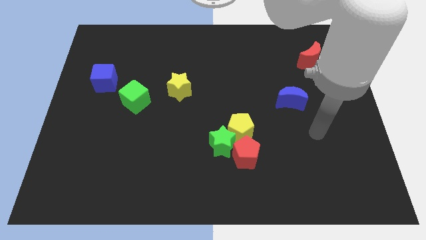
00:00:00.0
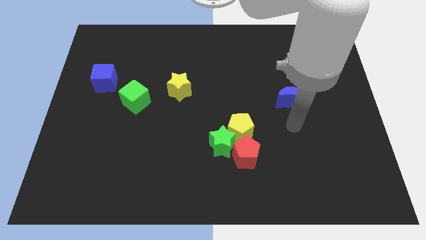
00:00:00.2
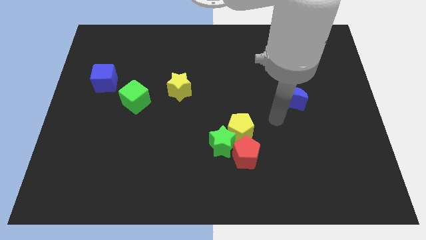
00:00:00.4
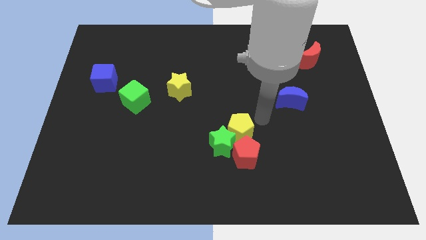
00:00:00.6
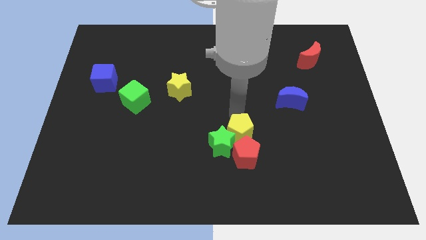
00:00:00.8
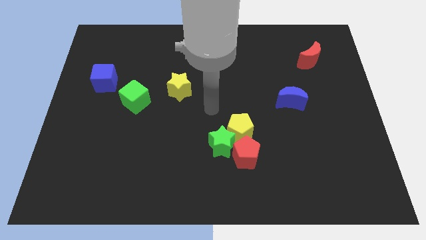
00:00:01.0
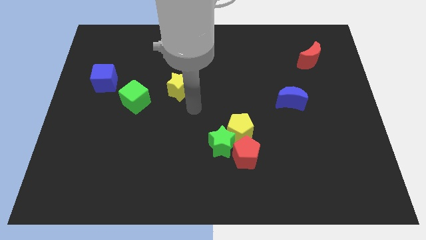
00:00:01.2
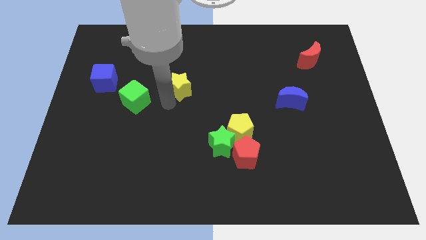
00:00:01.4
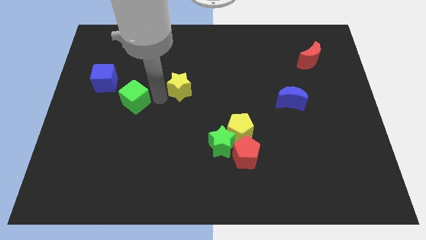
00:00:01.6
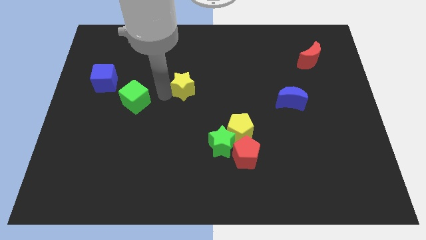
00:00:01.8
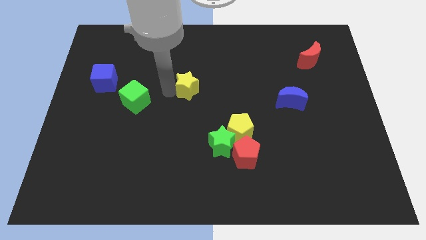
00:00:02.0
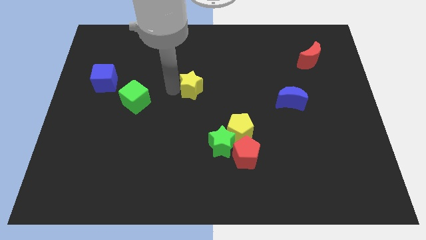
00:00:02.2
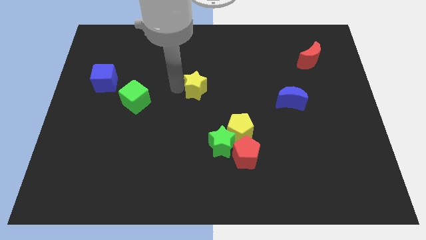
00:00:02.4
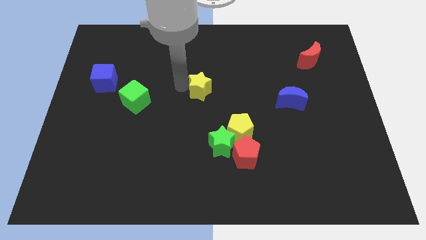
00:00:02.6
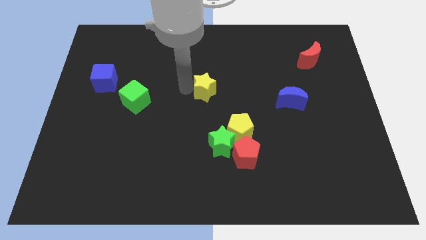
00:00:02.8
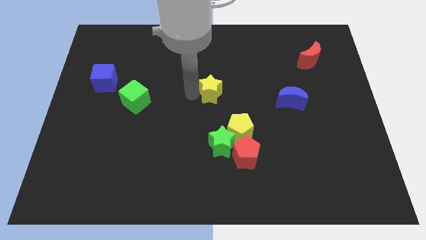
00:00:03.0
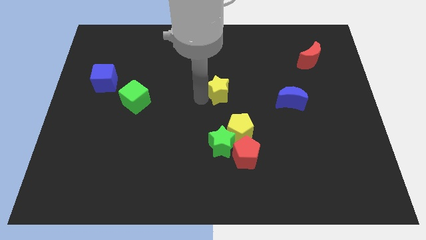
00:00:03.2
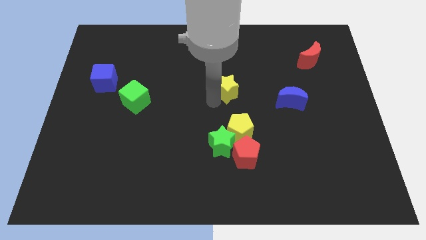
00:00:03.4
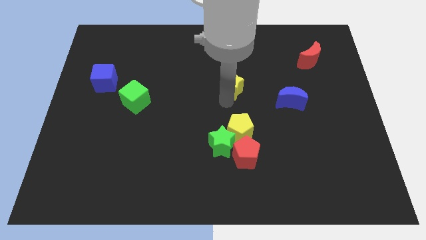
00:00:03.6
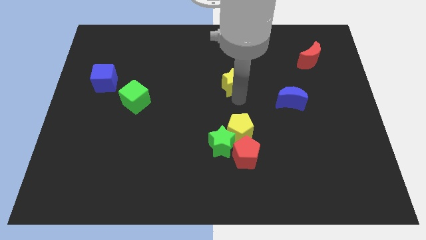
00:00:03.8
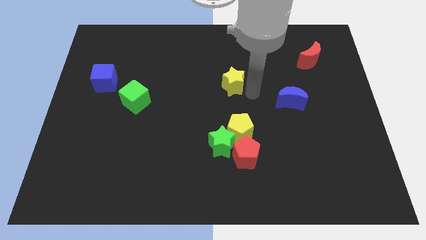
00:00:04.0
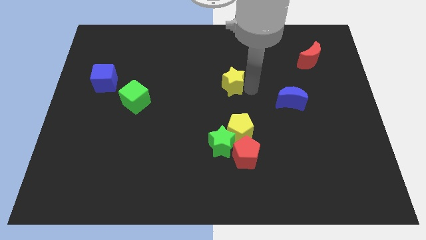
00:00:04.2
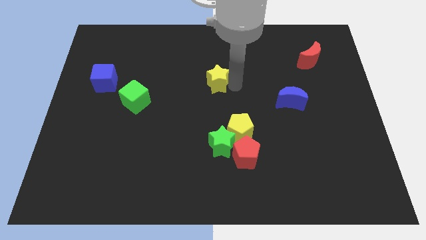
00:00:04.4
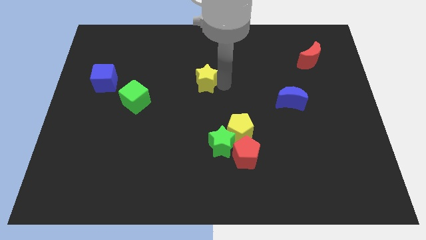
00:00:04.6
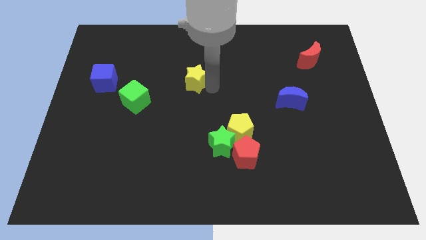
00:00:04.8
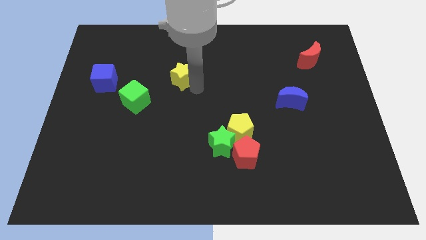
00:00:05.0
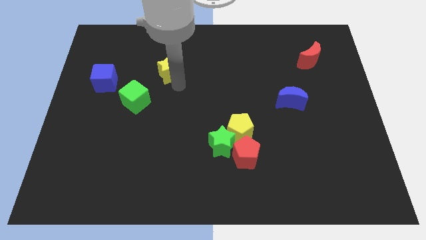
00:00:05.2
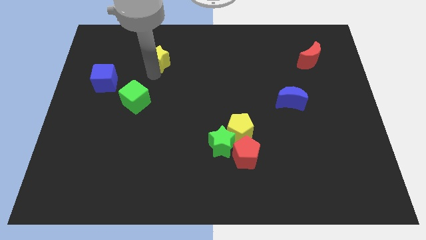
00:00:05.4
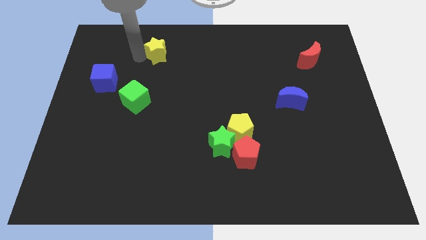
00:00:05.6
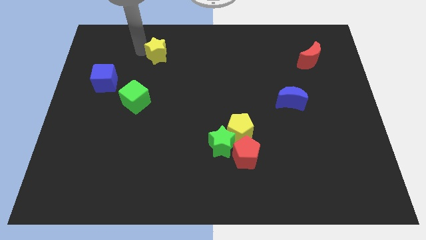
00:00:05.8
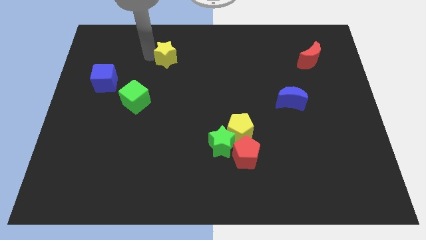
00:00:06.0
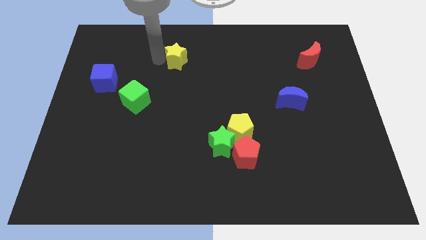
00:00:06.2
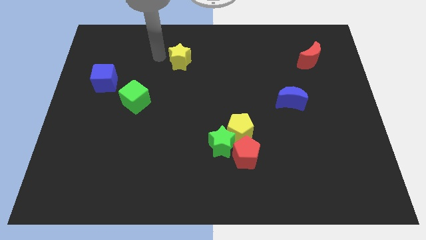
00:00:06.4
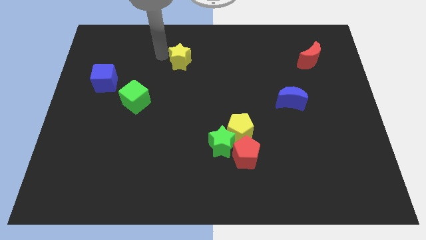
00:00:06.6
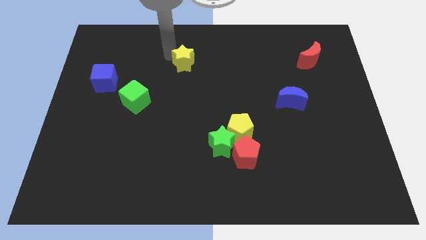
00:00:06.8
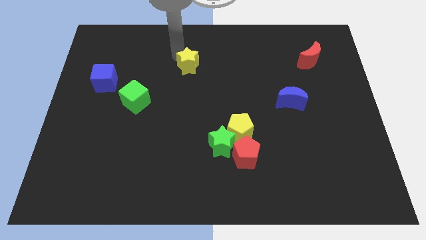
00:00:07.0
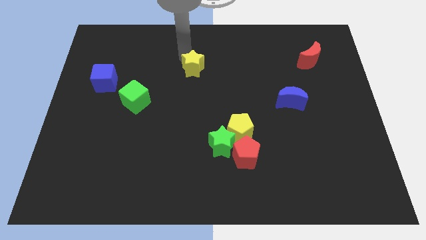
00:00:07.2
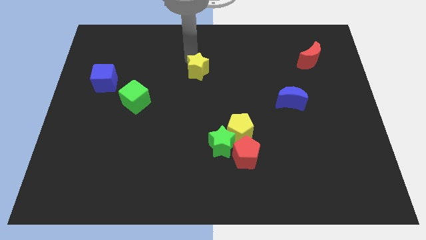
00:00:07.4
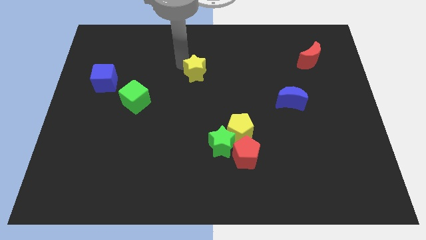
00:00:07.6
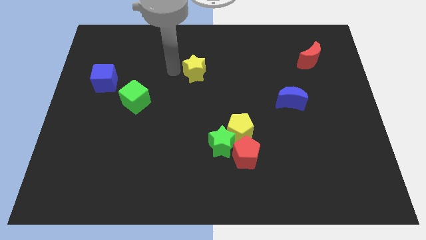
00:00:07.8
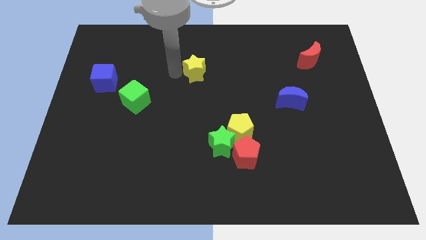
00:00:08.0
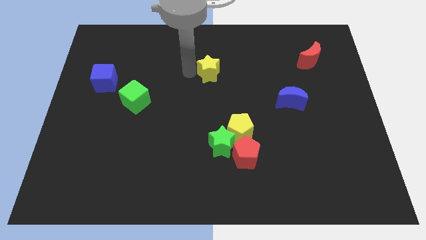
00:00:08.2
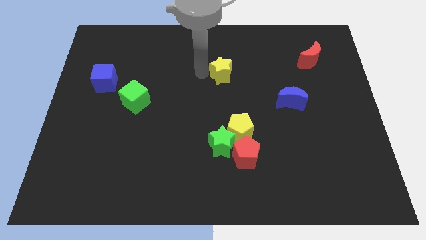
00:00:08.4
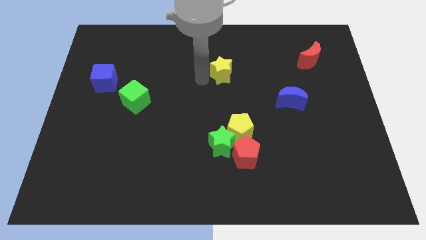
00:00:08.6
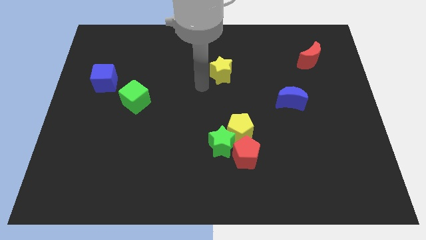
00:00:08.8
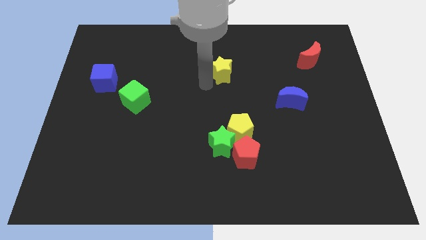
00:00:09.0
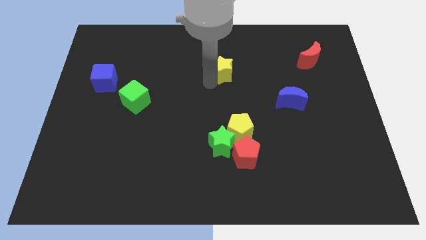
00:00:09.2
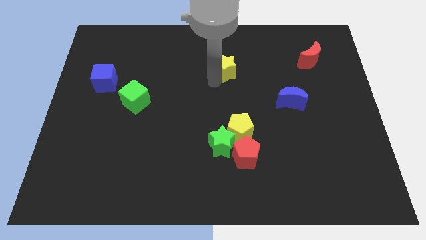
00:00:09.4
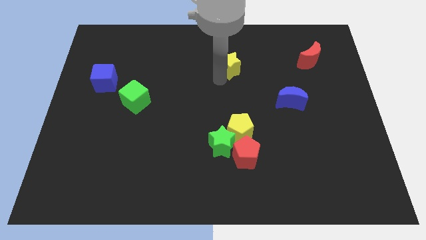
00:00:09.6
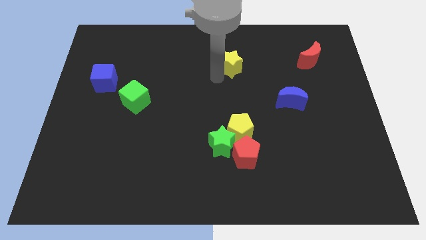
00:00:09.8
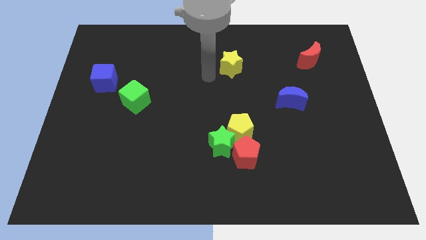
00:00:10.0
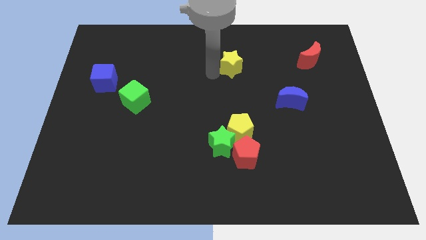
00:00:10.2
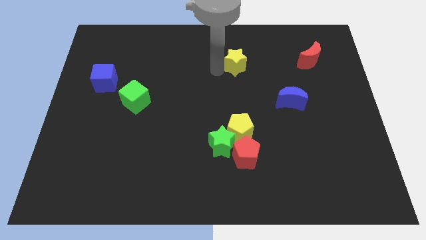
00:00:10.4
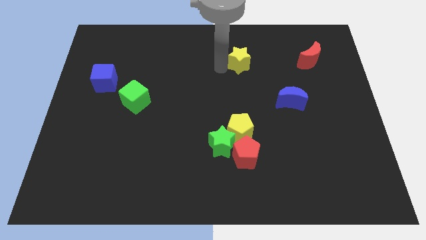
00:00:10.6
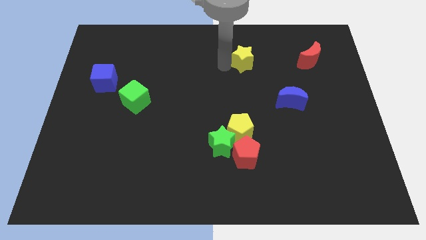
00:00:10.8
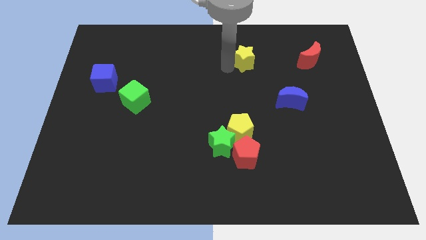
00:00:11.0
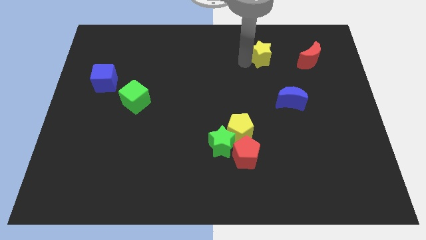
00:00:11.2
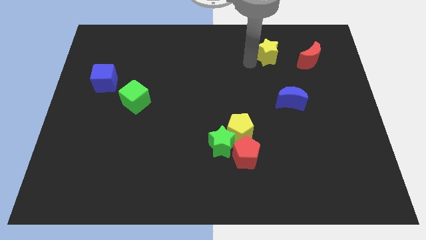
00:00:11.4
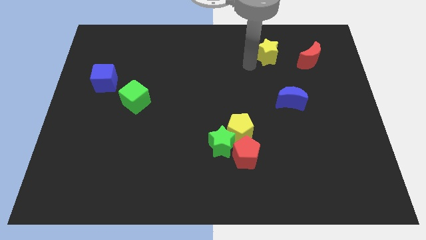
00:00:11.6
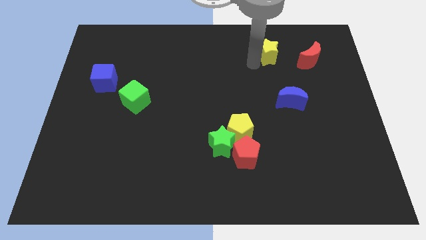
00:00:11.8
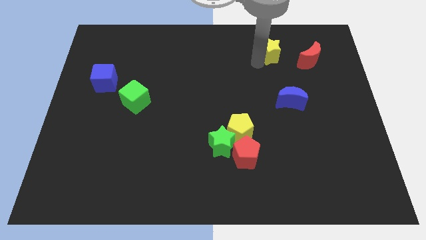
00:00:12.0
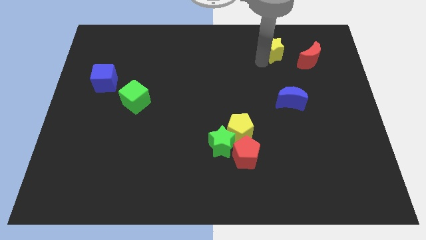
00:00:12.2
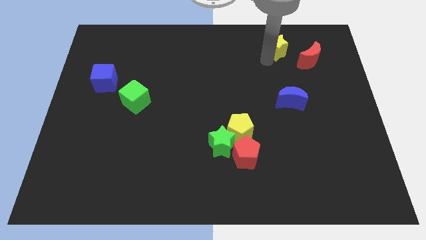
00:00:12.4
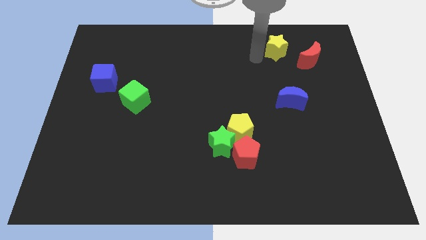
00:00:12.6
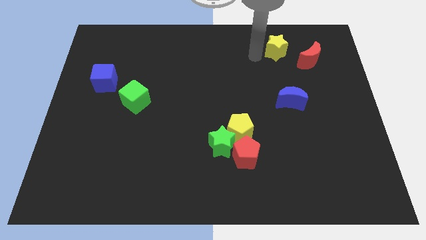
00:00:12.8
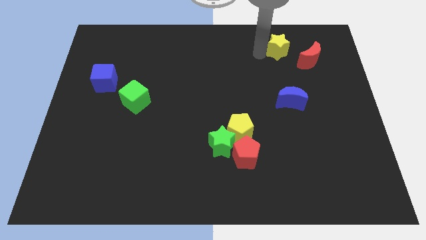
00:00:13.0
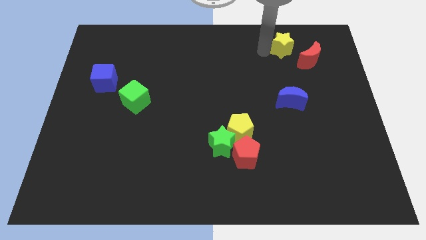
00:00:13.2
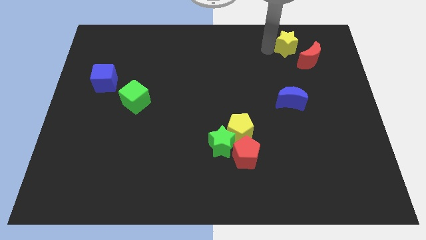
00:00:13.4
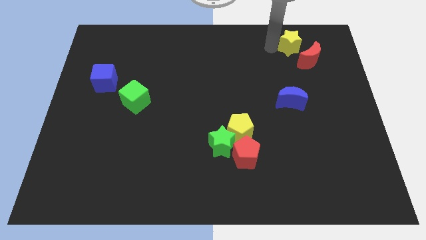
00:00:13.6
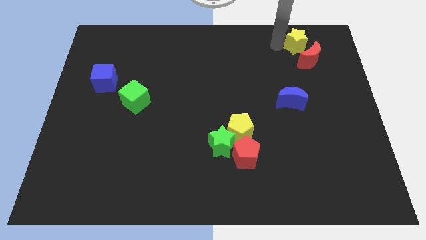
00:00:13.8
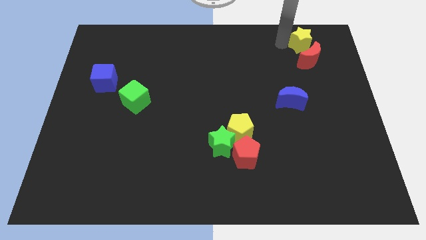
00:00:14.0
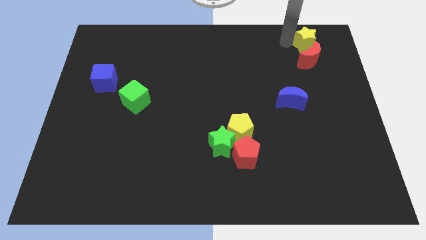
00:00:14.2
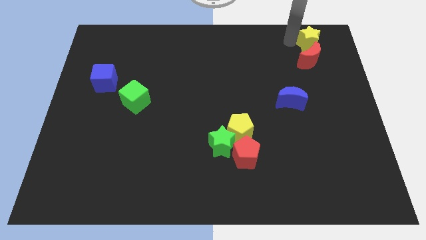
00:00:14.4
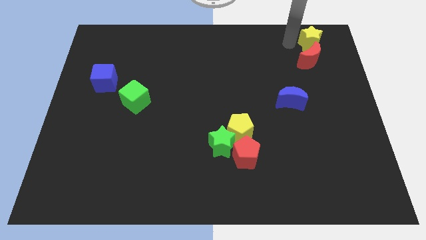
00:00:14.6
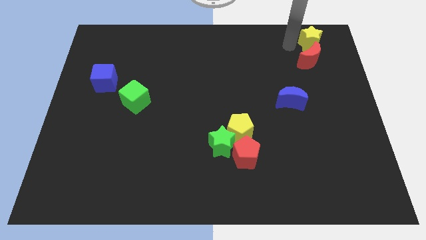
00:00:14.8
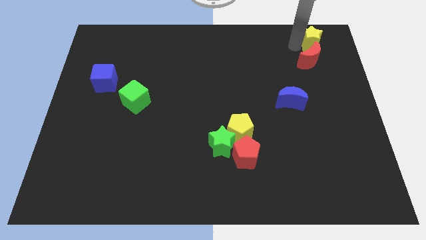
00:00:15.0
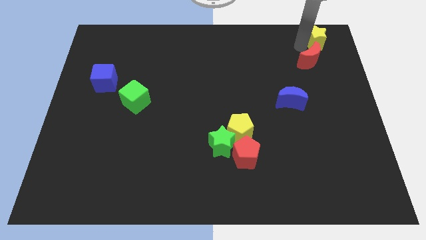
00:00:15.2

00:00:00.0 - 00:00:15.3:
slide the yellow star to the top right corner
